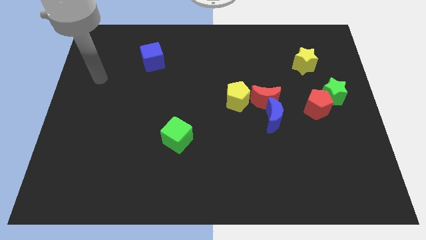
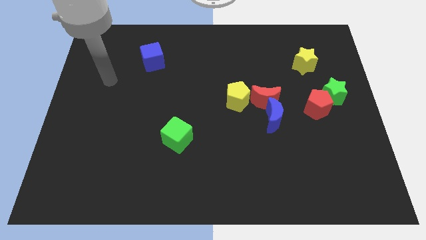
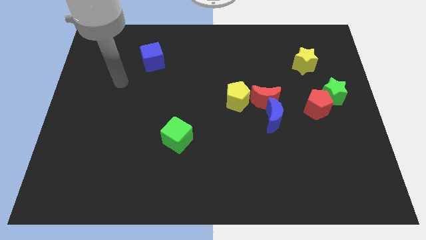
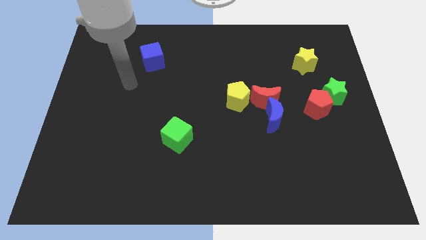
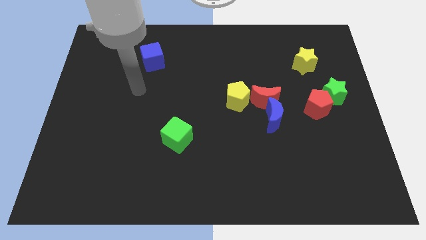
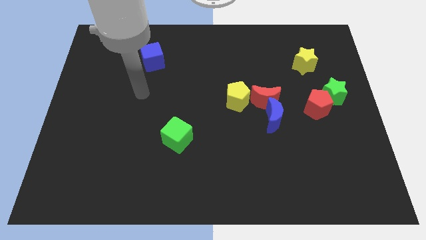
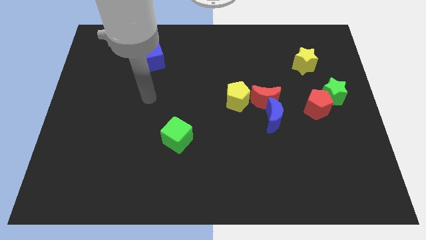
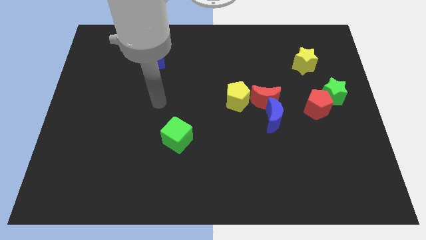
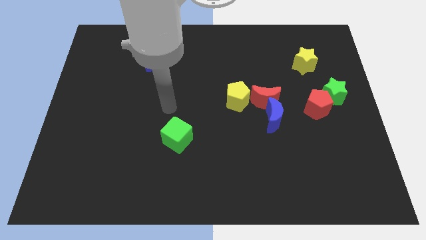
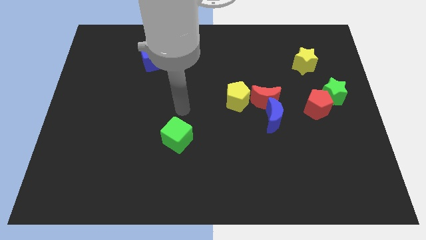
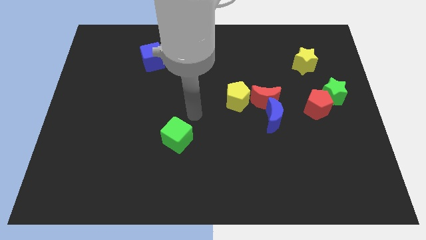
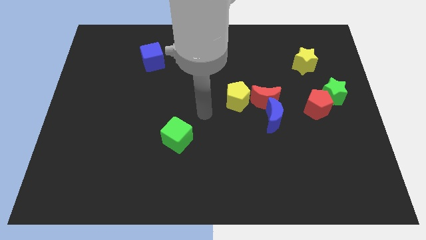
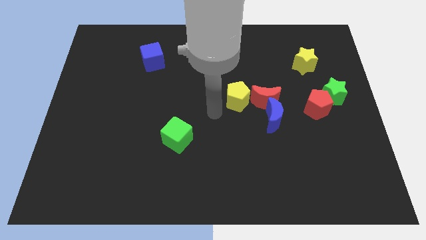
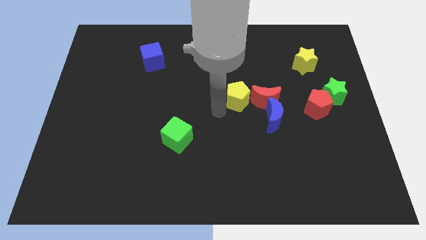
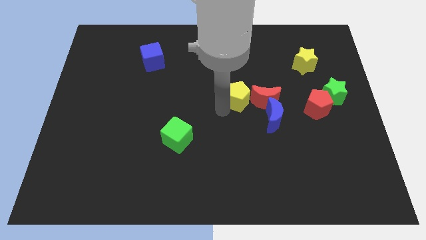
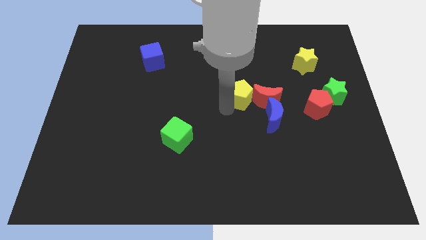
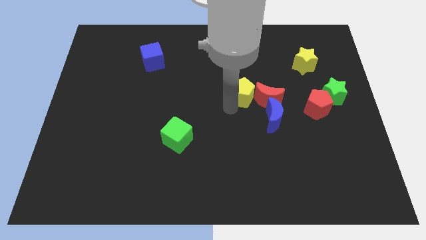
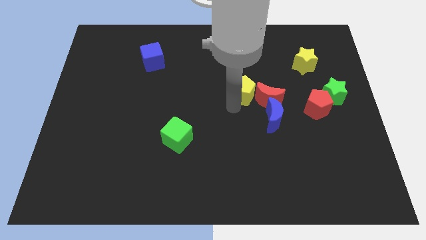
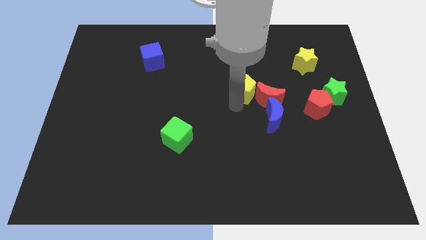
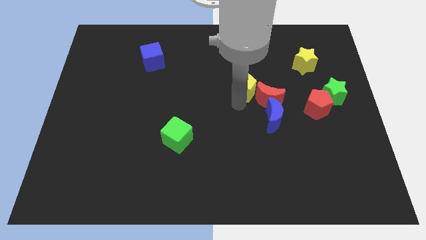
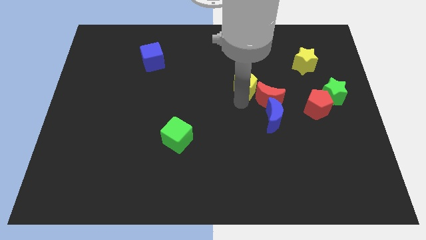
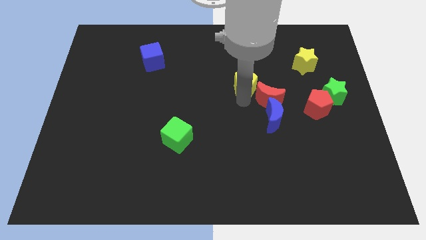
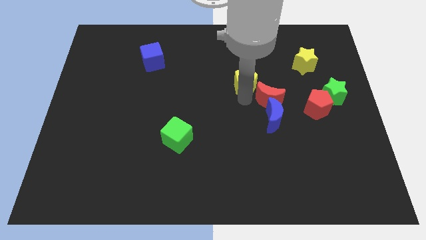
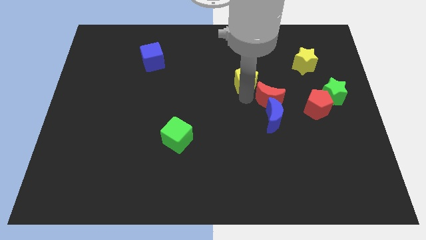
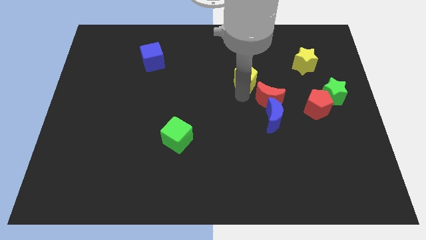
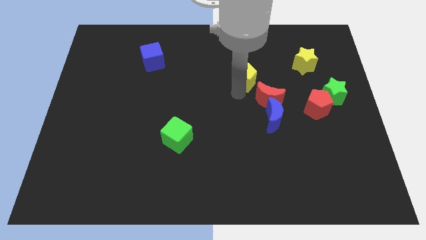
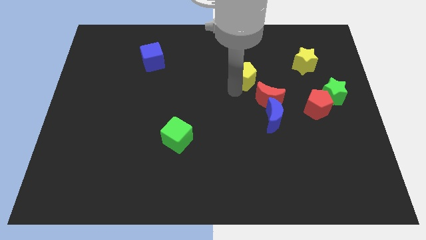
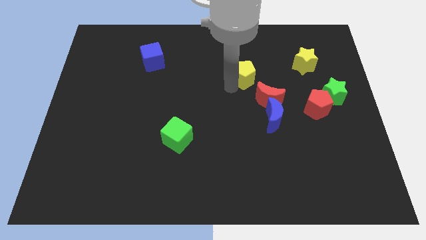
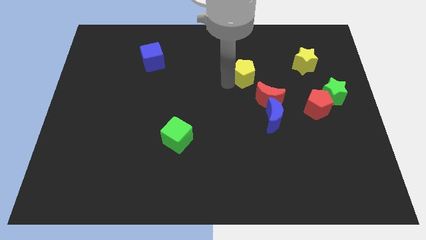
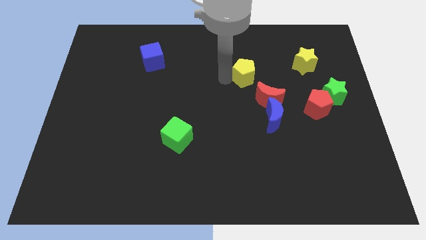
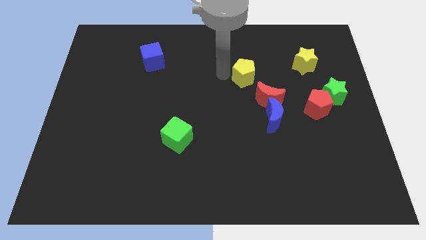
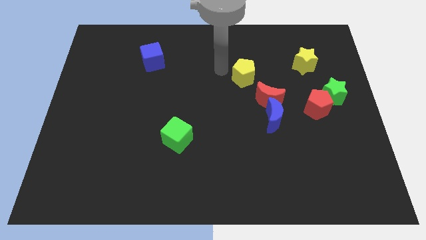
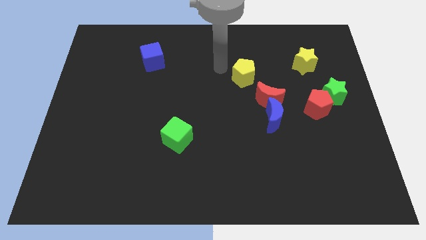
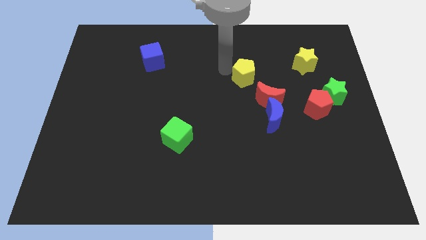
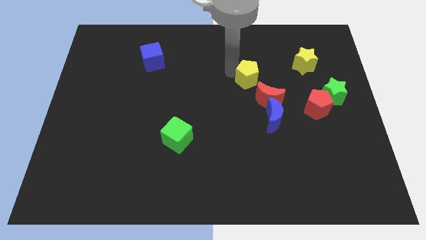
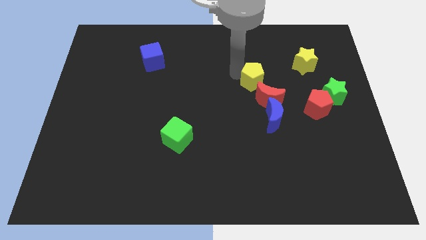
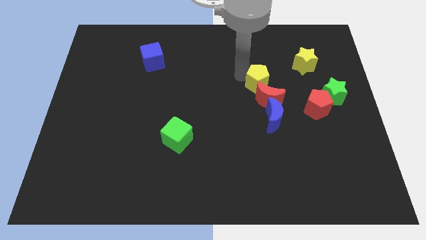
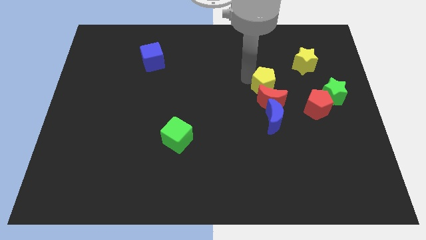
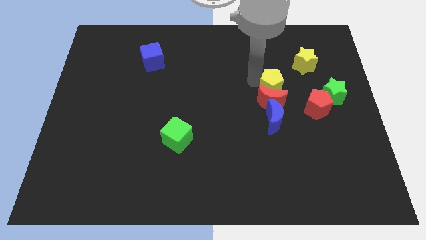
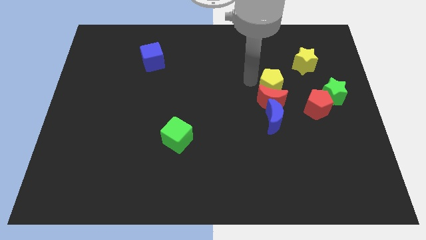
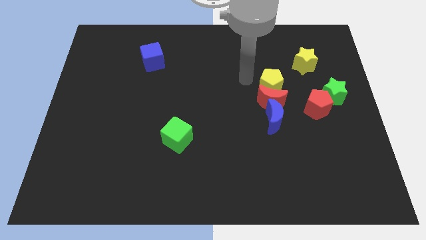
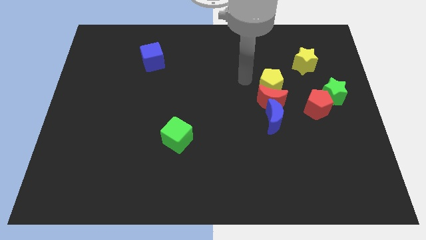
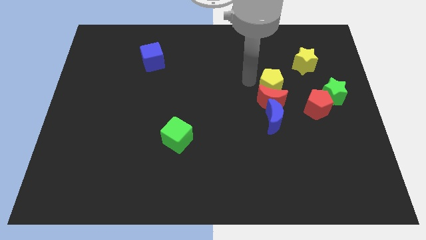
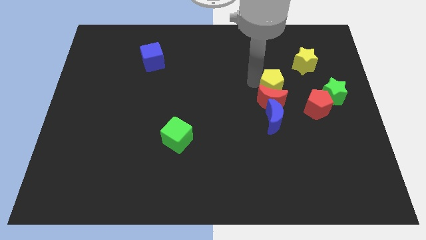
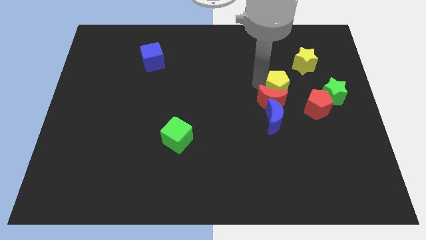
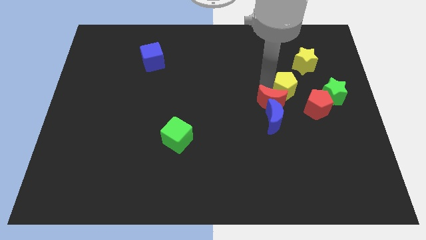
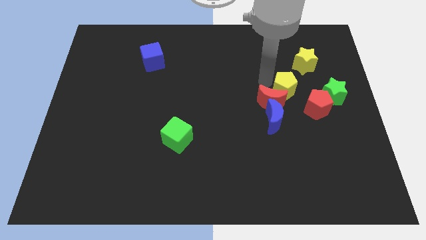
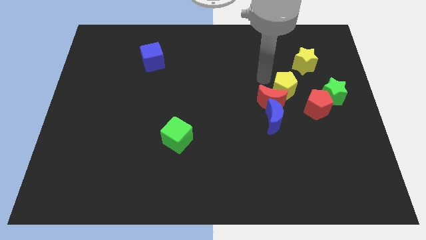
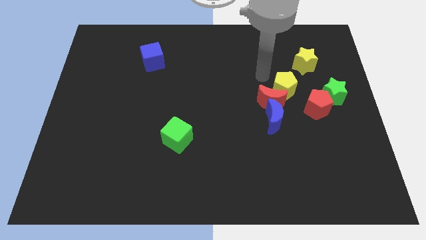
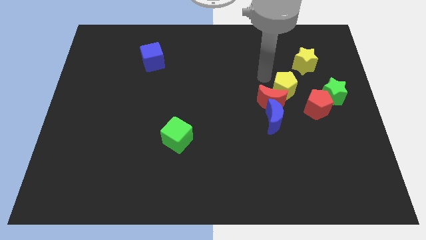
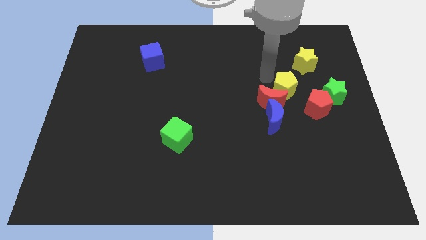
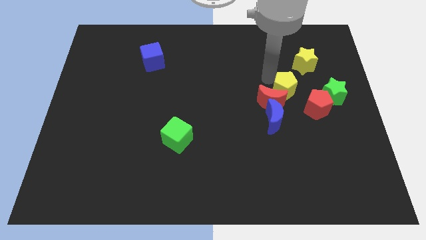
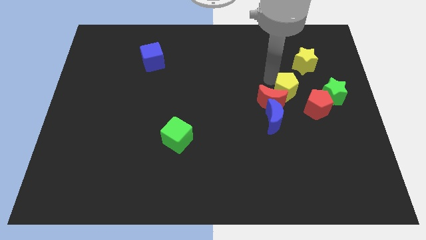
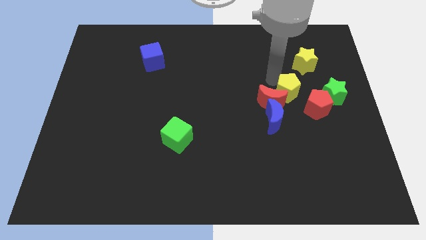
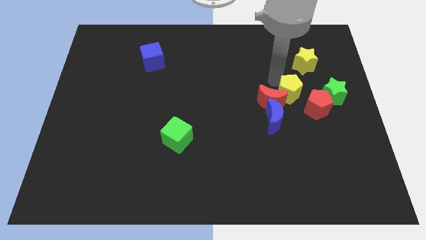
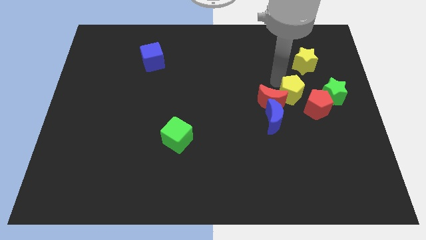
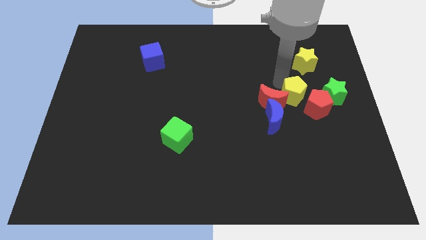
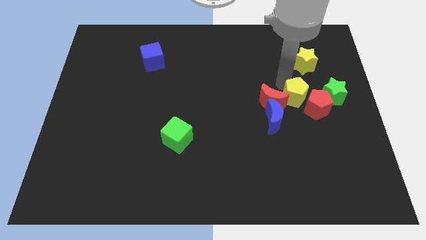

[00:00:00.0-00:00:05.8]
push the yellow pentagon to the red pentagon

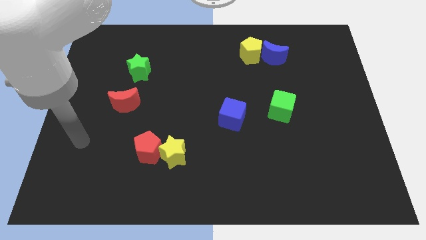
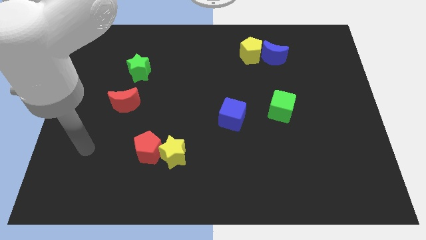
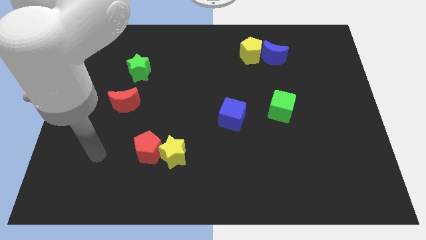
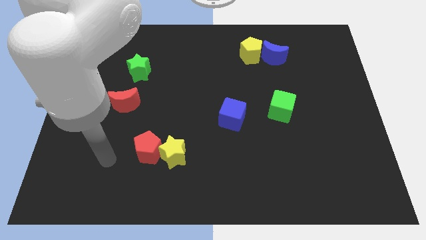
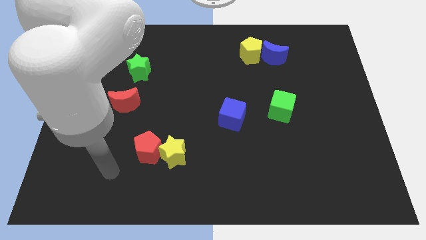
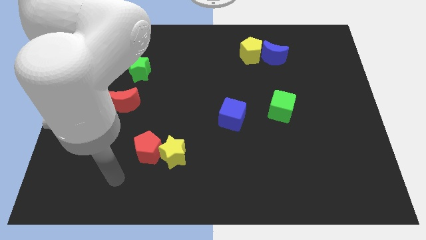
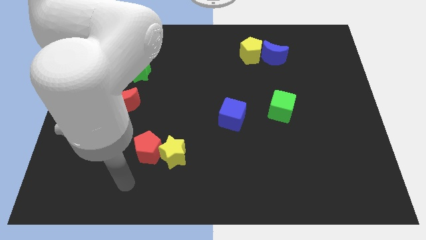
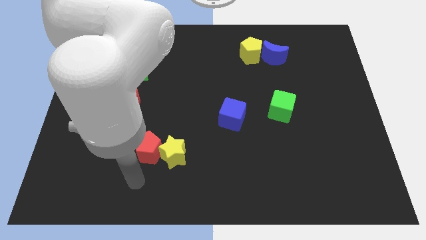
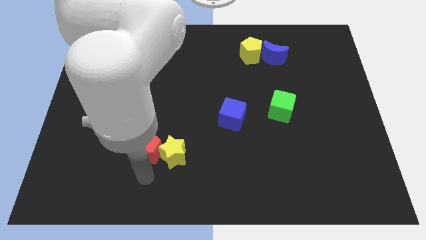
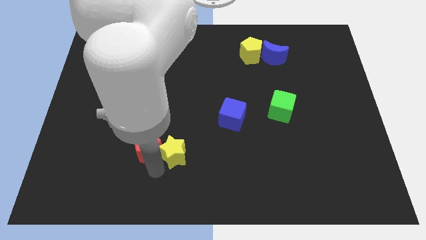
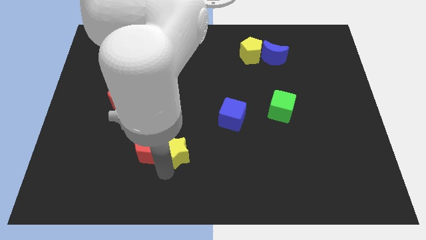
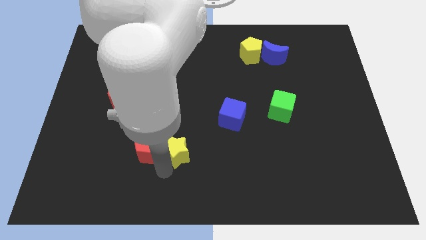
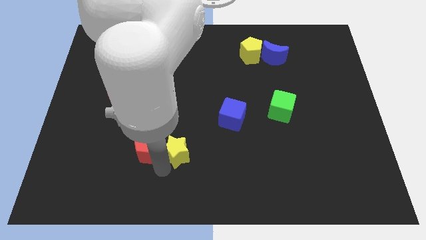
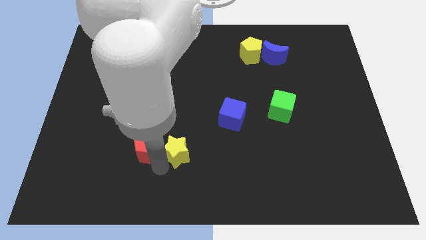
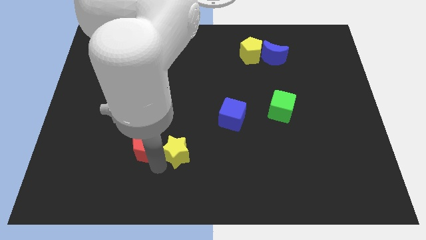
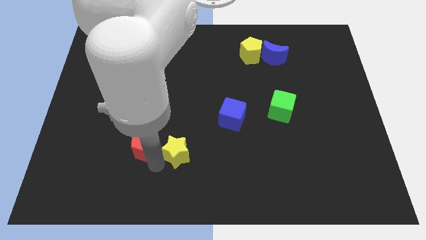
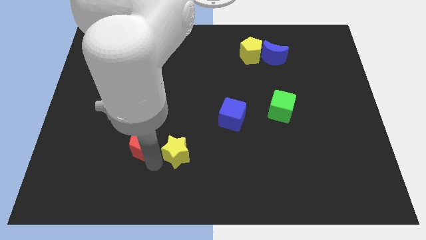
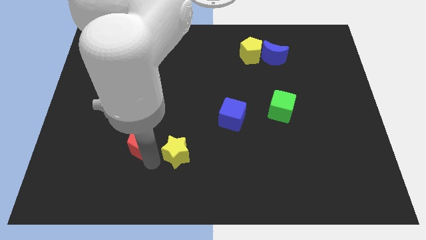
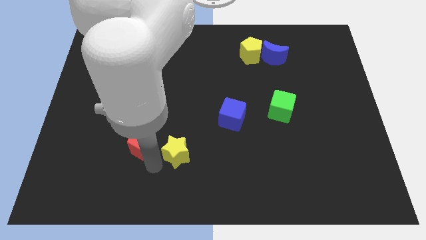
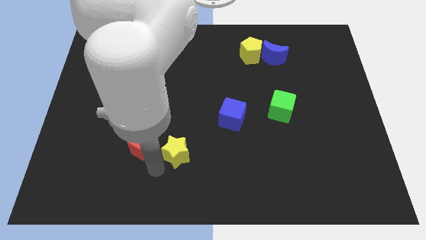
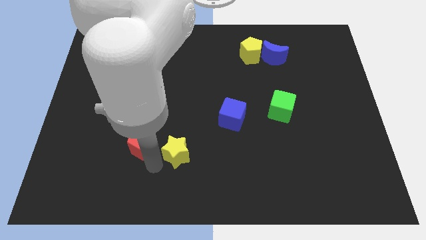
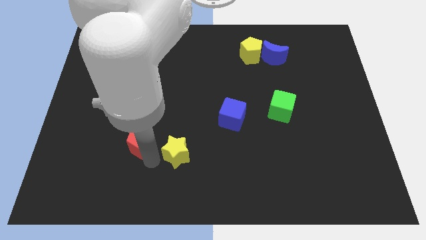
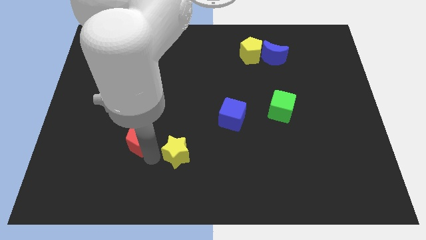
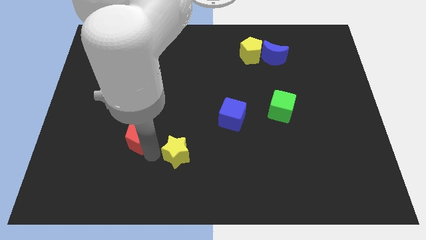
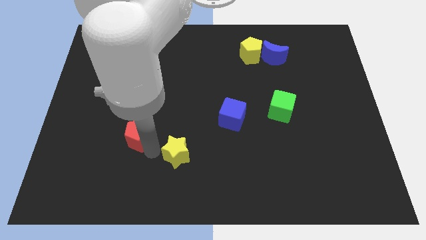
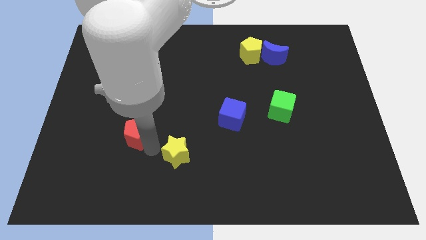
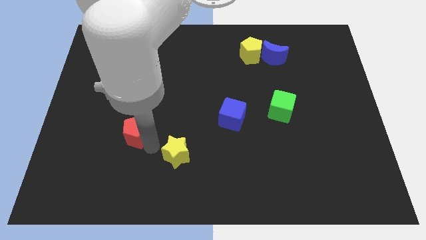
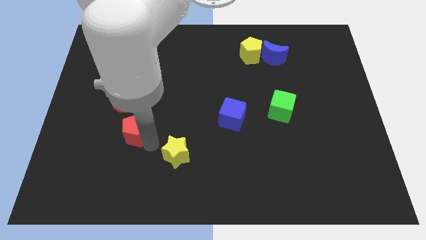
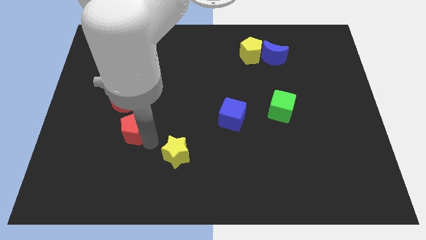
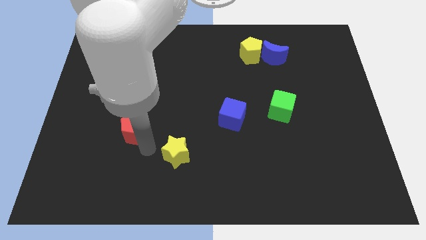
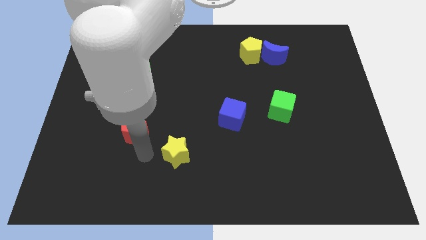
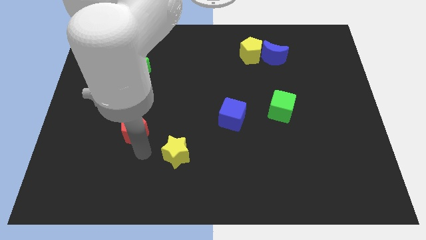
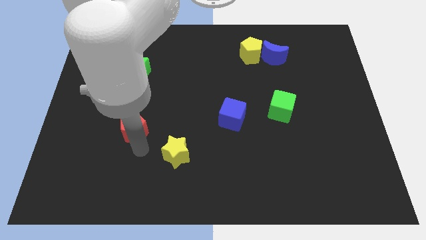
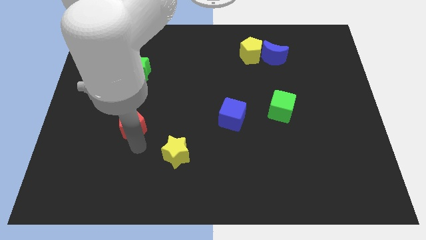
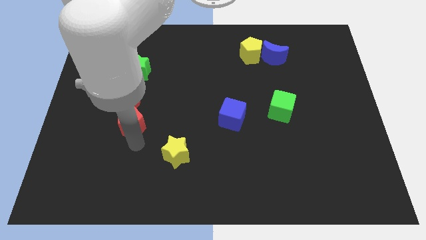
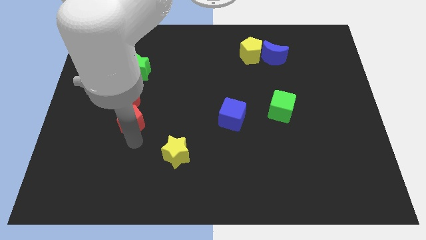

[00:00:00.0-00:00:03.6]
move the red pentagon to the red moon
